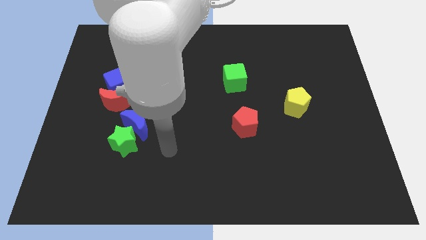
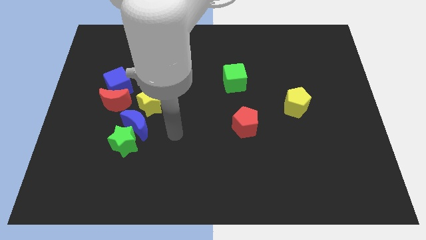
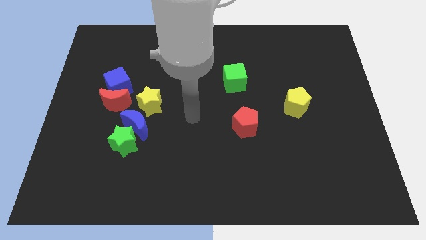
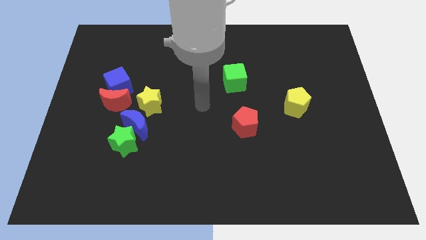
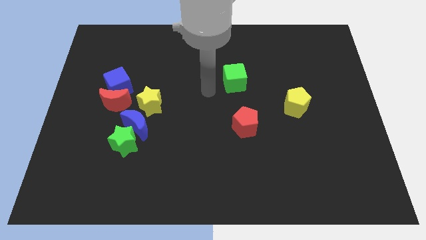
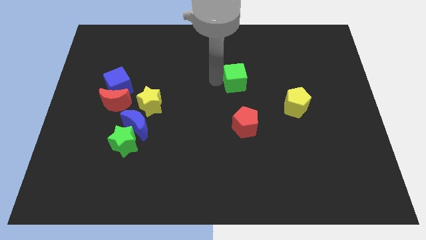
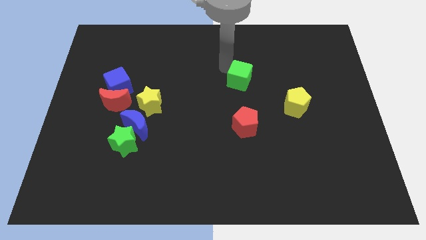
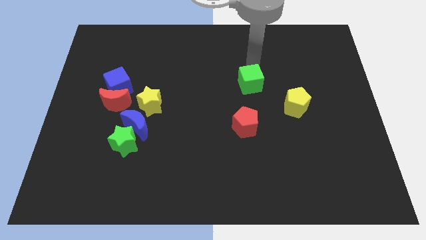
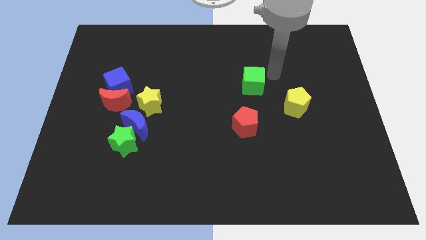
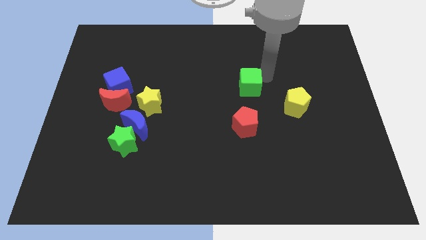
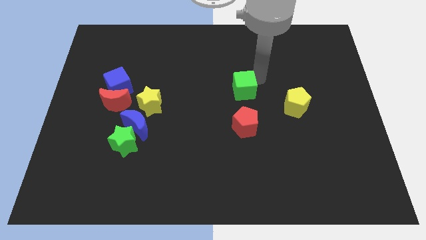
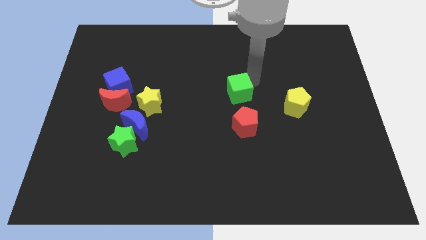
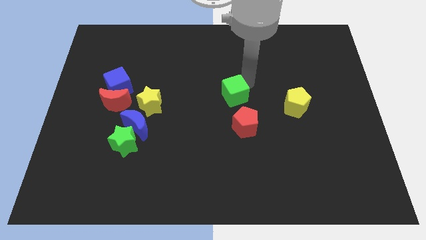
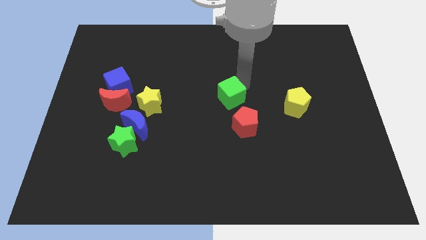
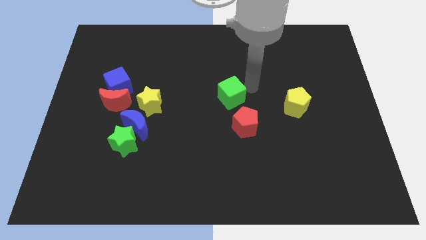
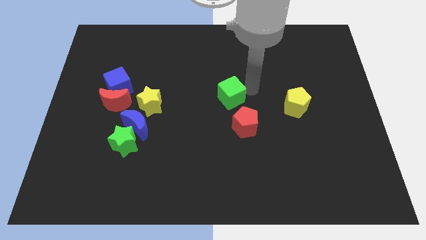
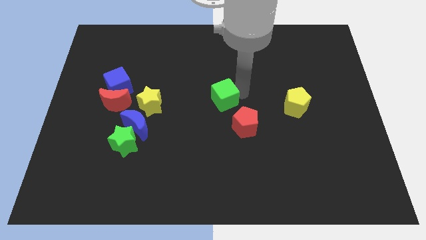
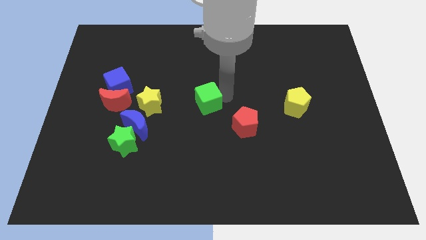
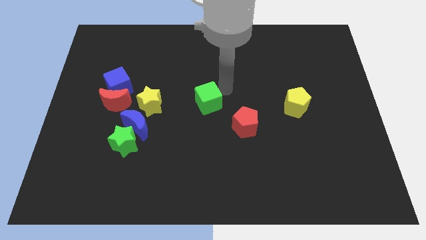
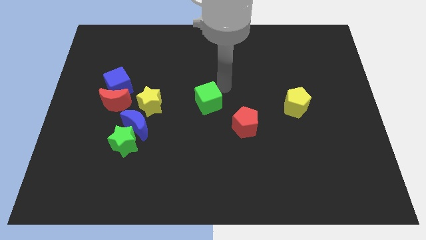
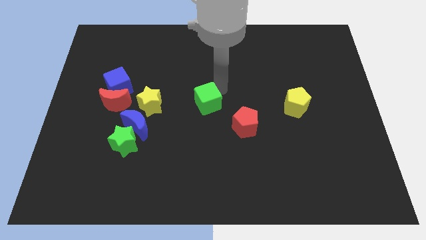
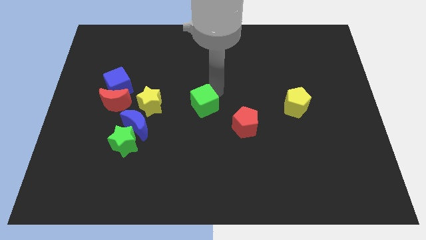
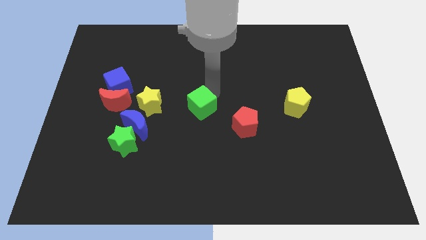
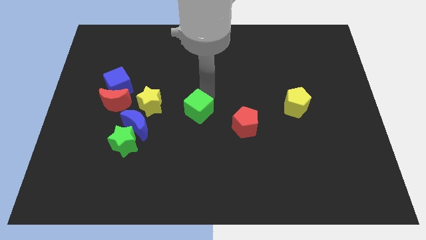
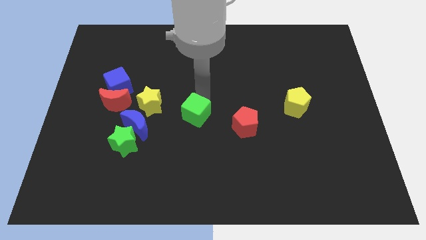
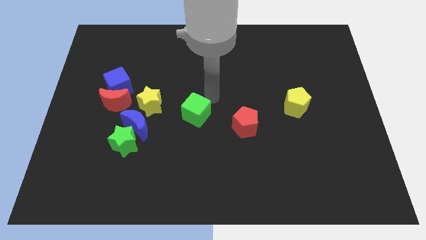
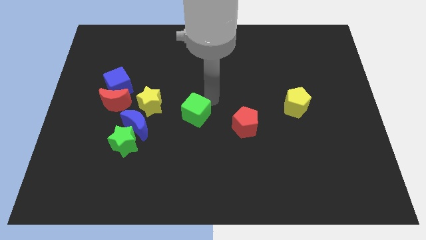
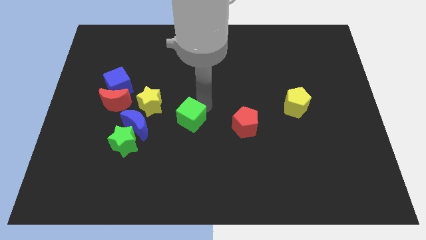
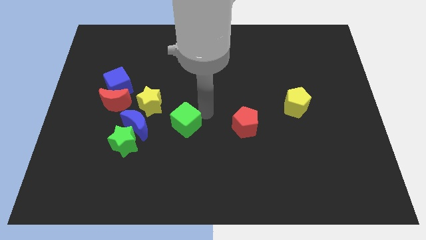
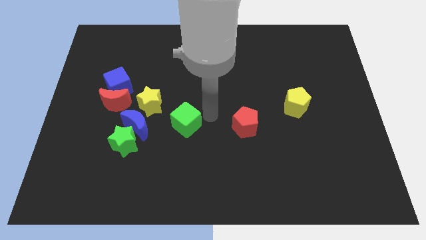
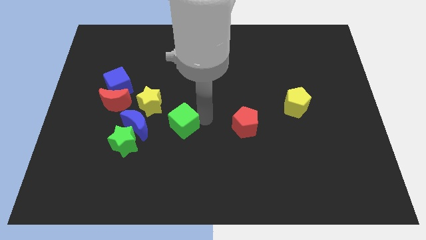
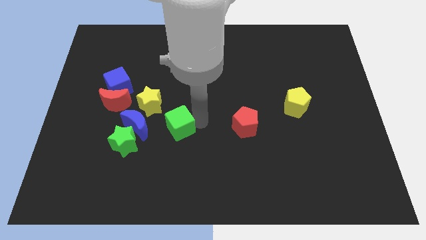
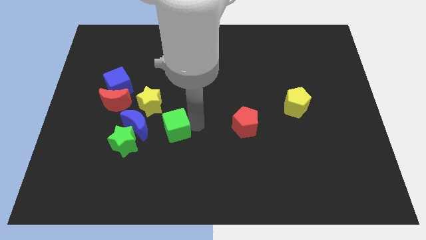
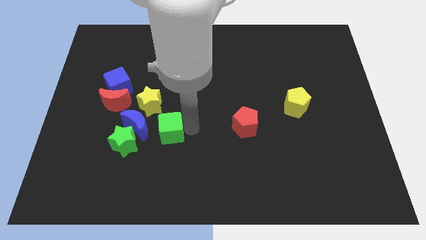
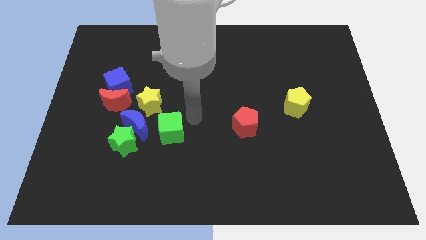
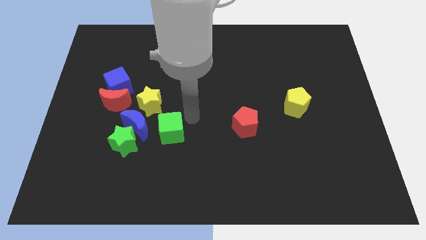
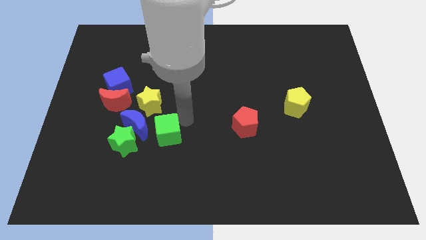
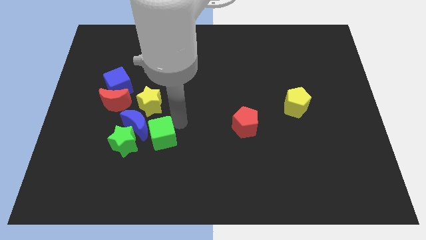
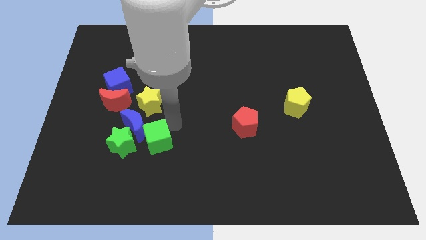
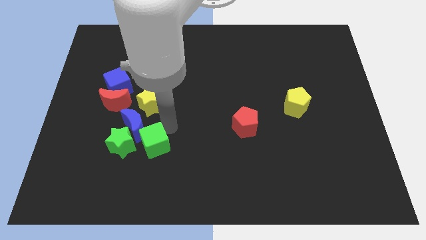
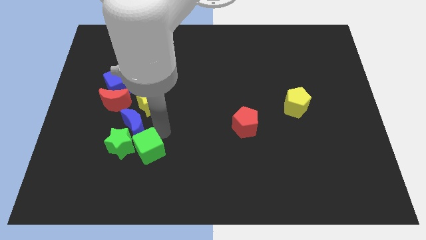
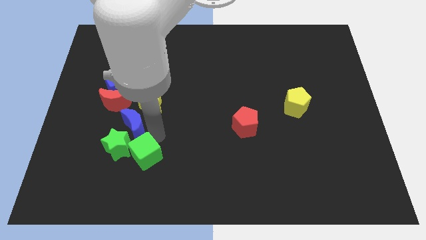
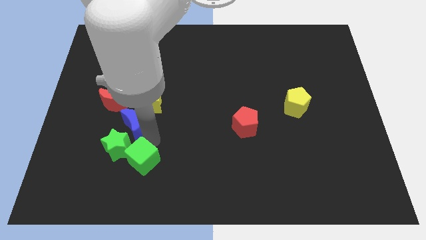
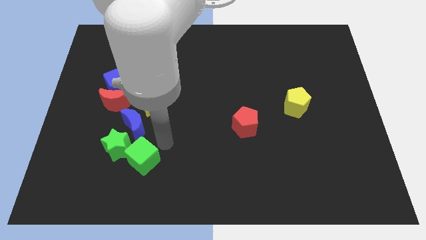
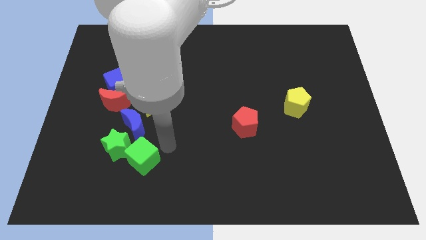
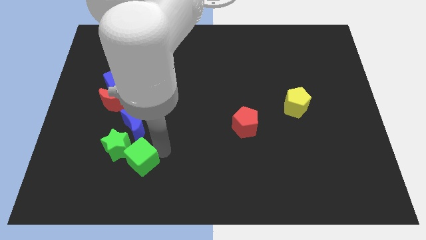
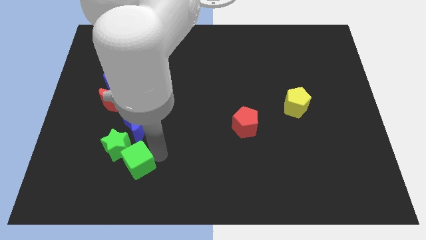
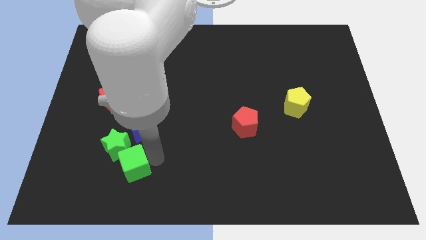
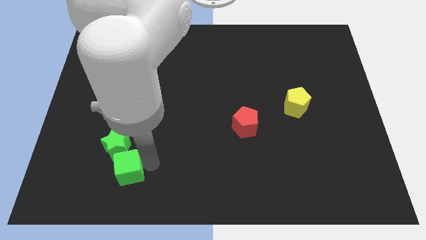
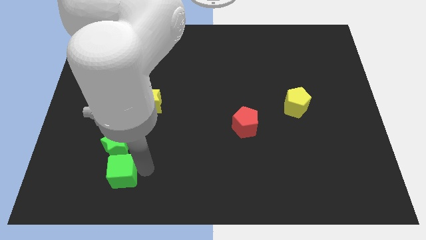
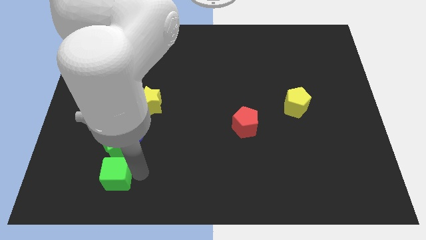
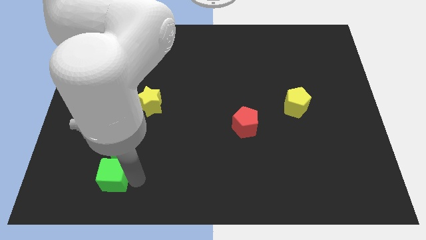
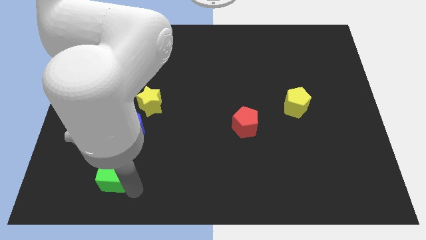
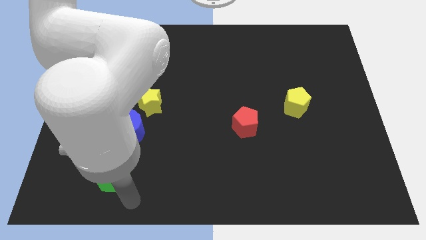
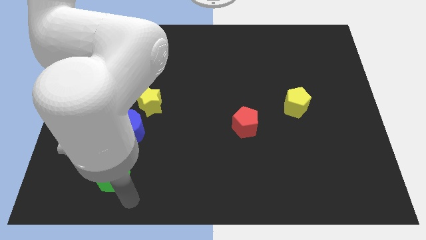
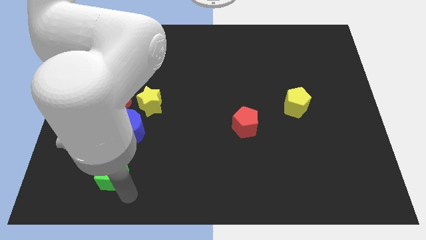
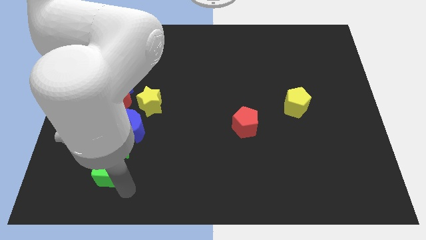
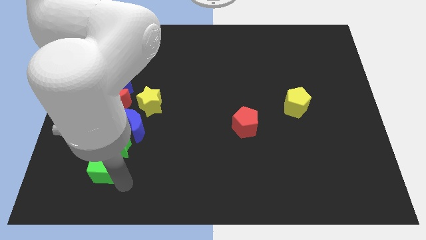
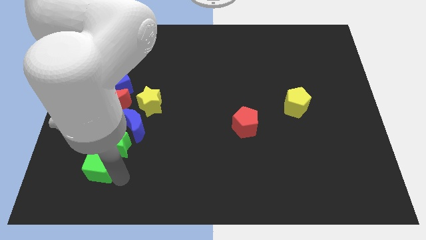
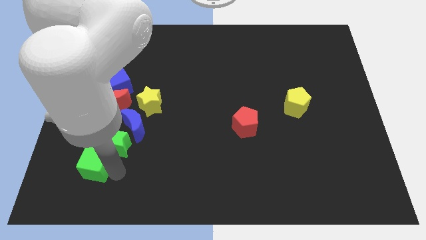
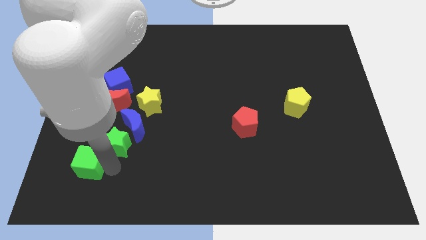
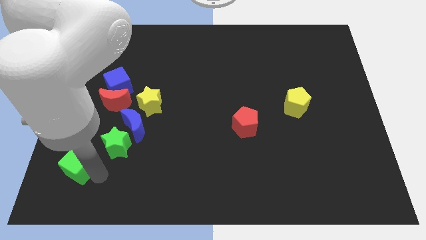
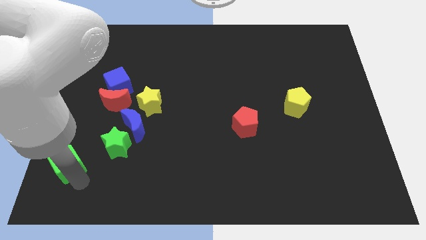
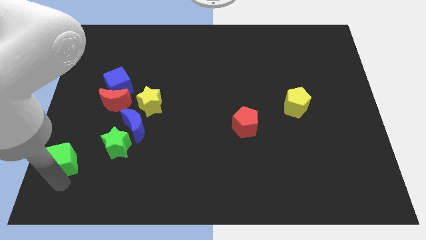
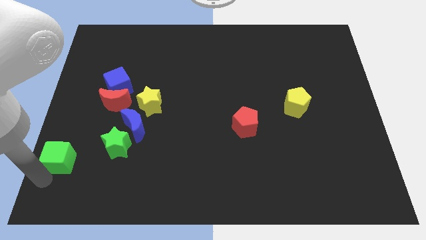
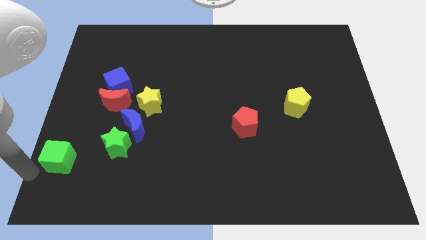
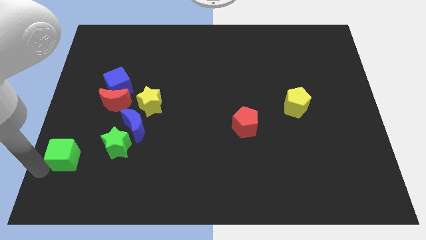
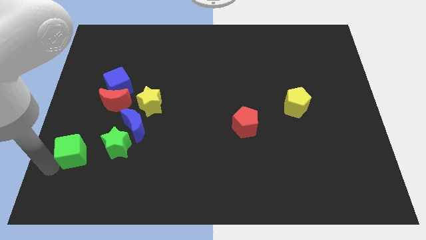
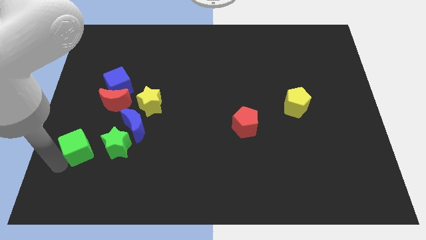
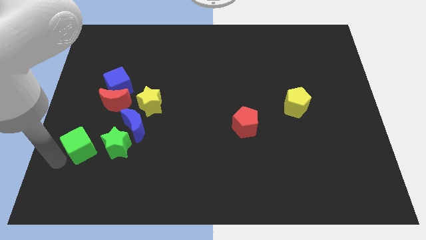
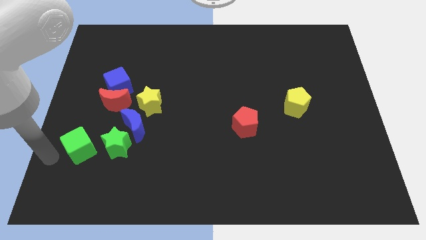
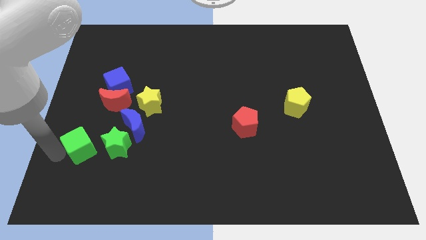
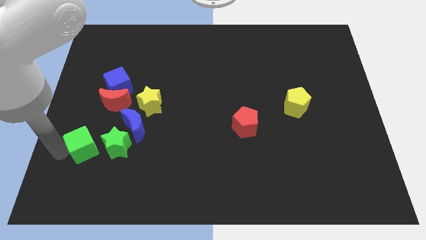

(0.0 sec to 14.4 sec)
push the green cube below the red moon
